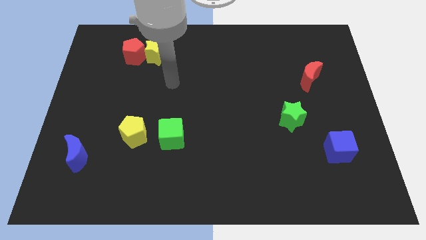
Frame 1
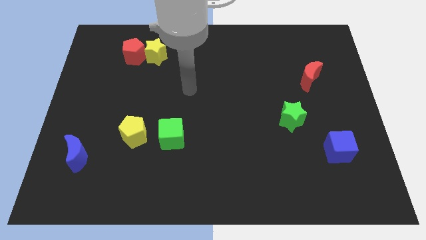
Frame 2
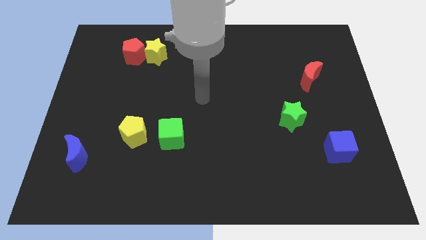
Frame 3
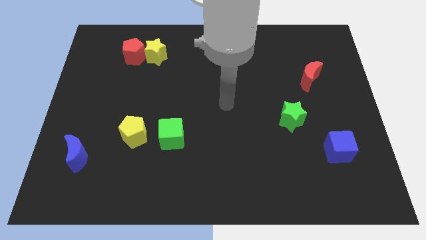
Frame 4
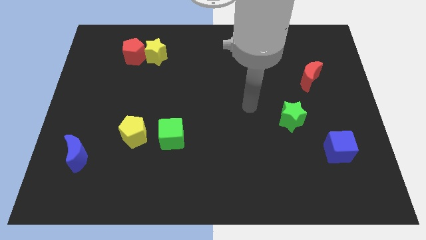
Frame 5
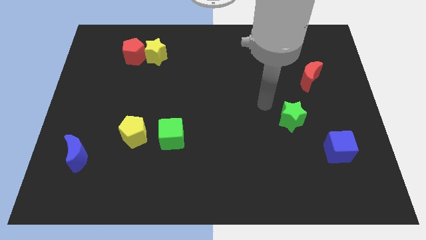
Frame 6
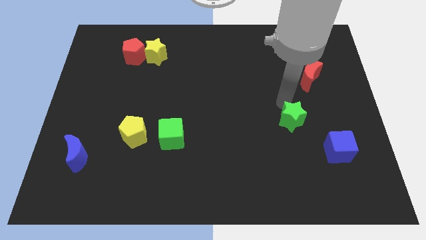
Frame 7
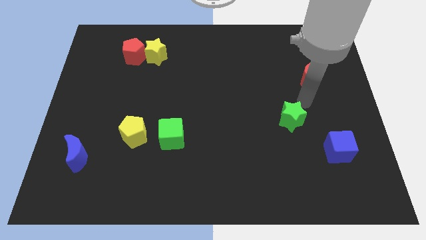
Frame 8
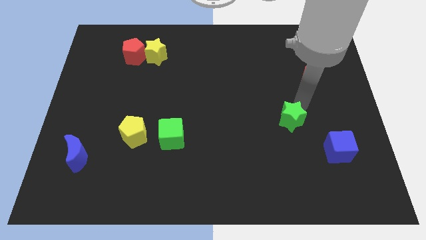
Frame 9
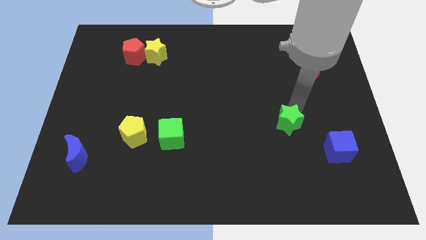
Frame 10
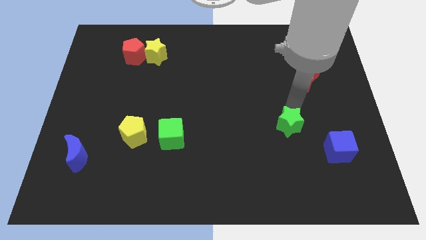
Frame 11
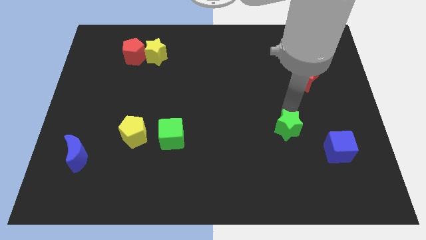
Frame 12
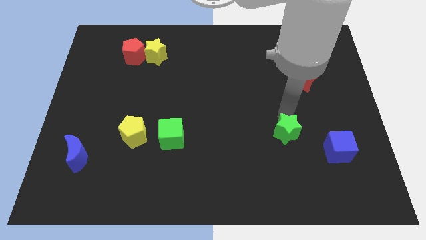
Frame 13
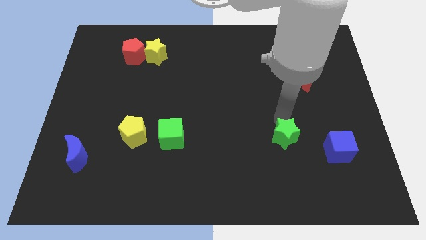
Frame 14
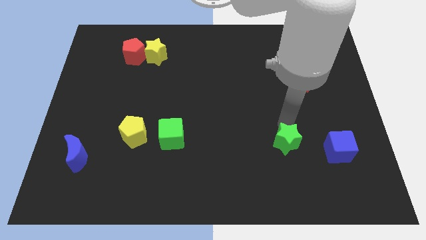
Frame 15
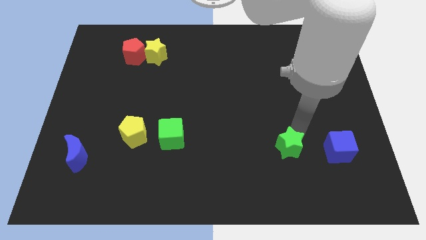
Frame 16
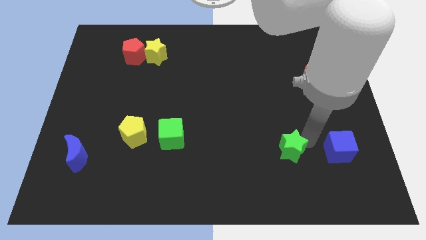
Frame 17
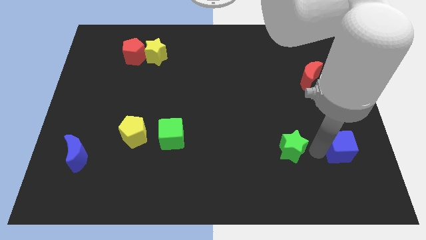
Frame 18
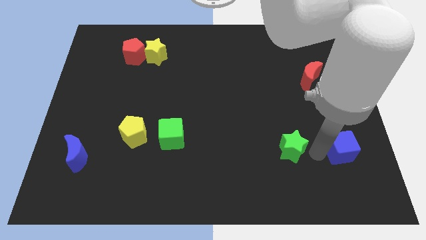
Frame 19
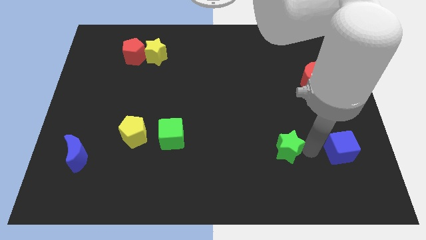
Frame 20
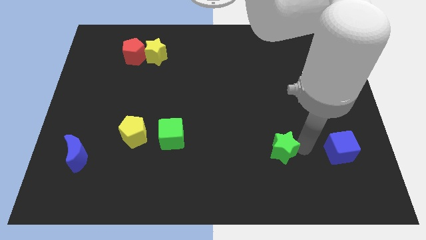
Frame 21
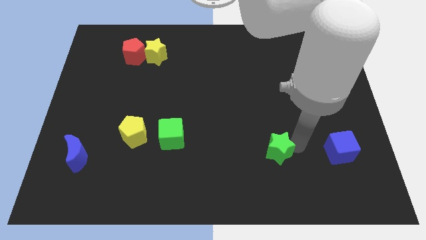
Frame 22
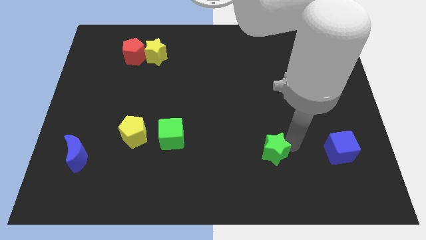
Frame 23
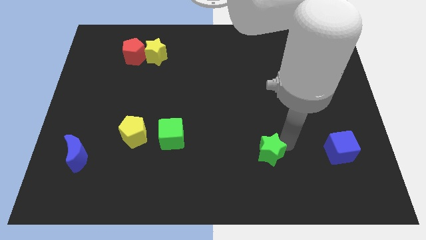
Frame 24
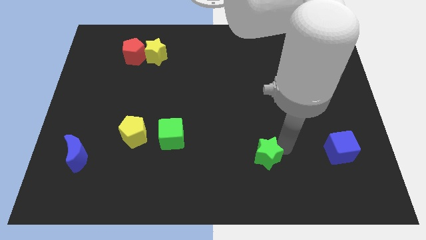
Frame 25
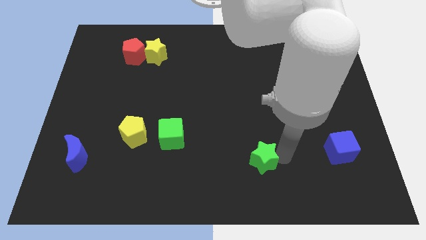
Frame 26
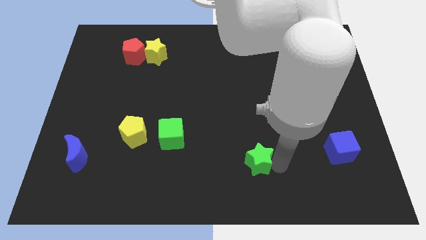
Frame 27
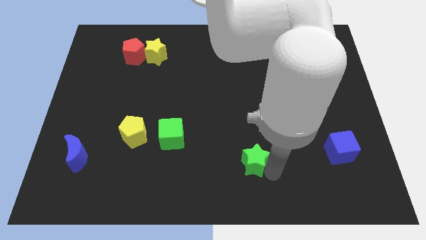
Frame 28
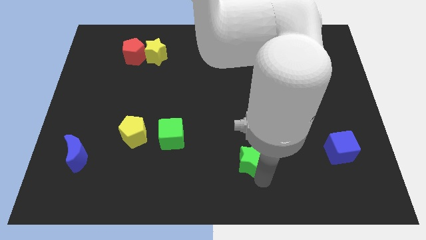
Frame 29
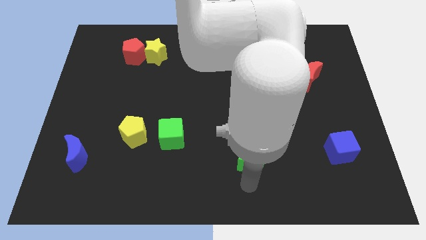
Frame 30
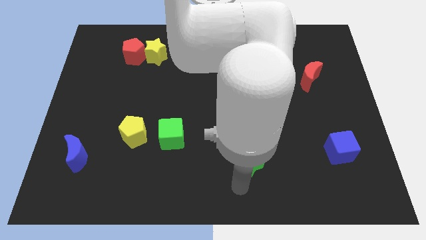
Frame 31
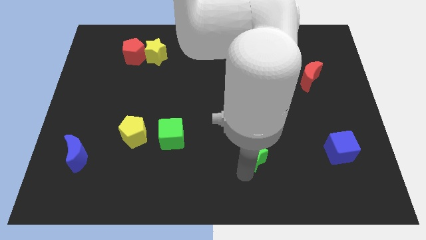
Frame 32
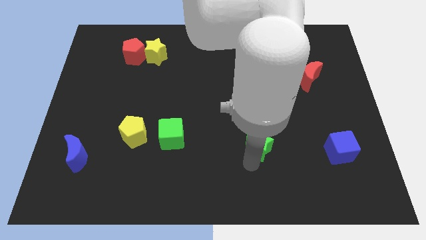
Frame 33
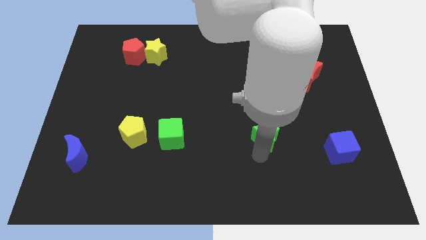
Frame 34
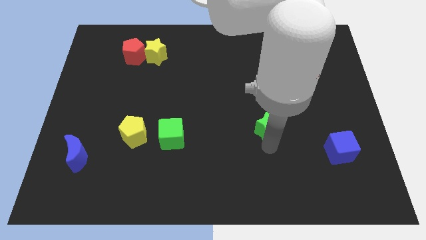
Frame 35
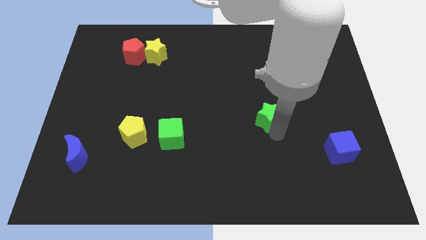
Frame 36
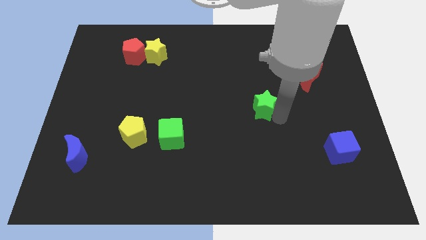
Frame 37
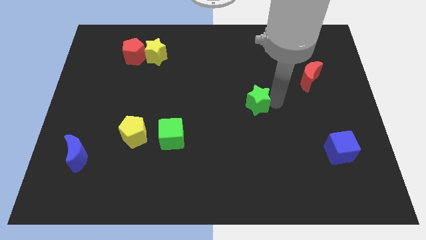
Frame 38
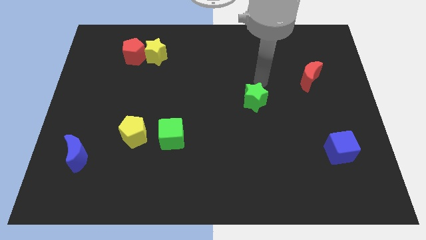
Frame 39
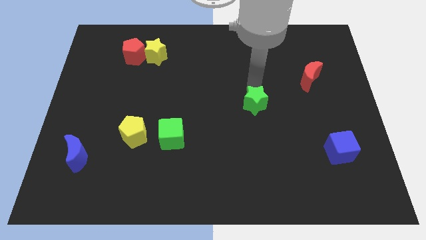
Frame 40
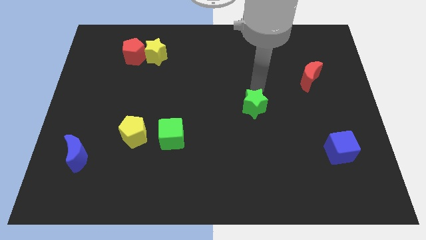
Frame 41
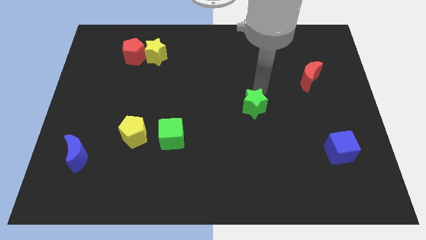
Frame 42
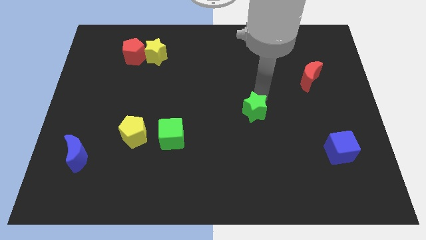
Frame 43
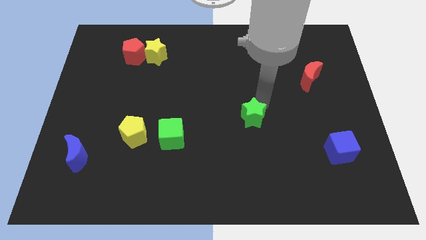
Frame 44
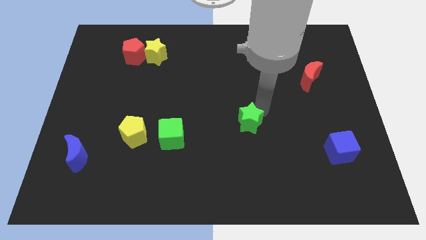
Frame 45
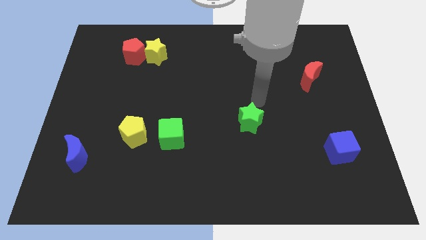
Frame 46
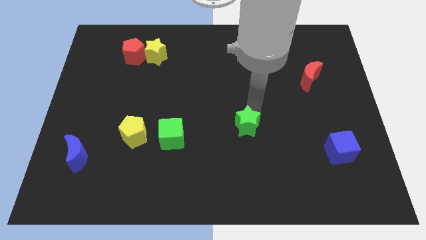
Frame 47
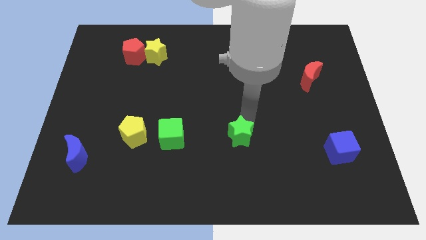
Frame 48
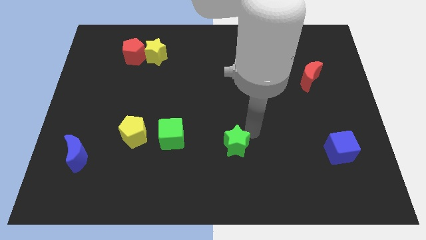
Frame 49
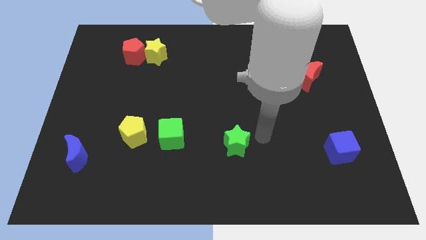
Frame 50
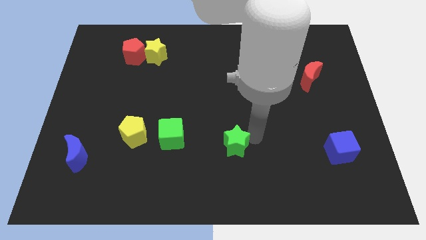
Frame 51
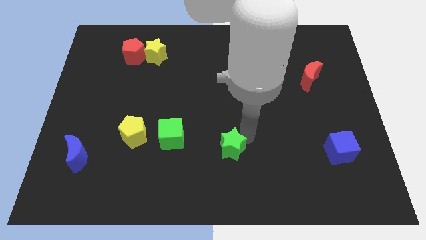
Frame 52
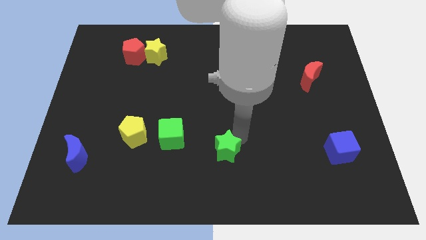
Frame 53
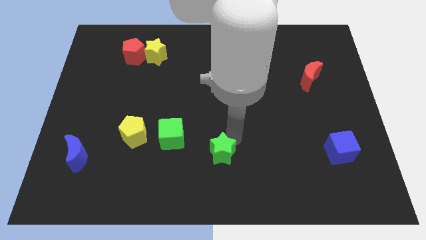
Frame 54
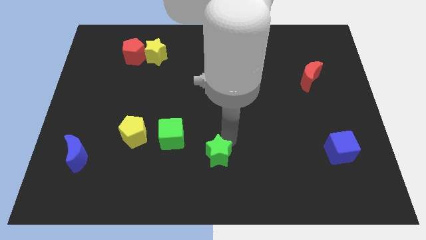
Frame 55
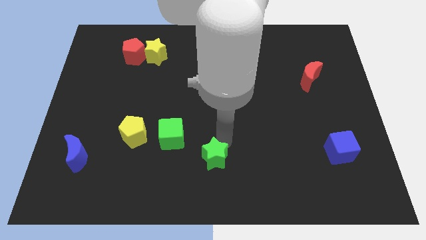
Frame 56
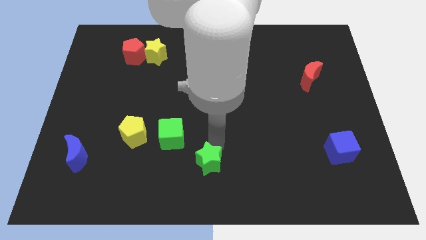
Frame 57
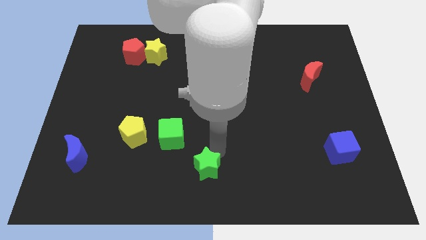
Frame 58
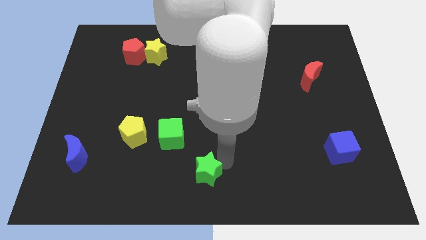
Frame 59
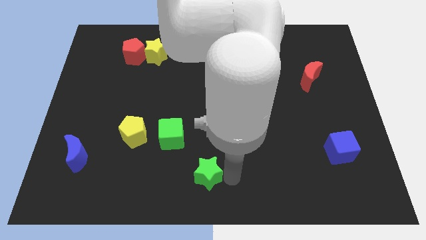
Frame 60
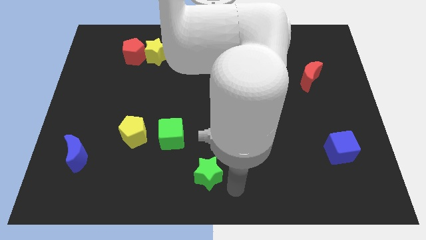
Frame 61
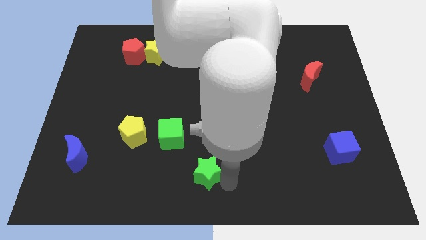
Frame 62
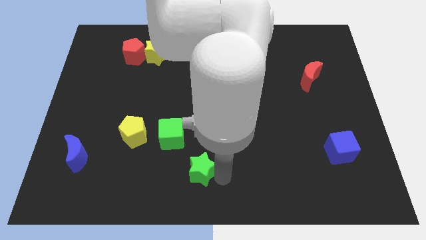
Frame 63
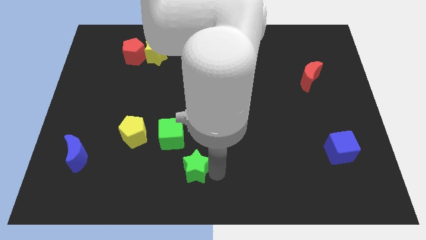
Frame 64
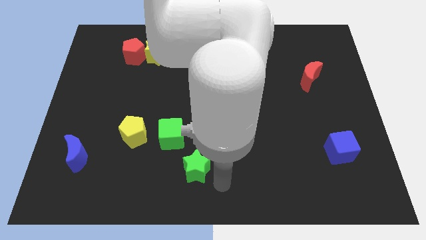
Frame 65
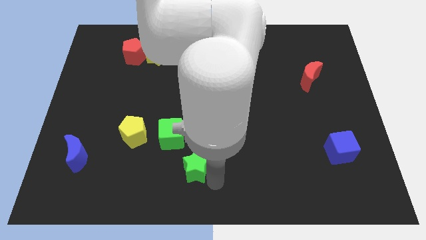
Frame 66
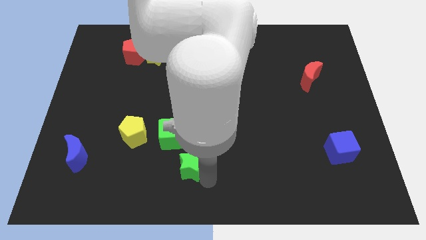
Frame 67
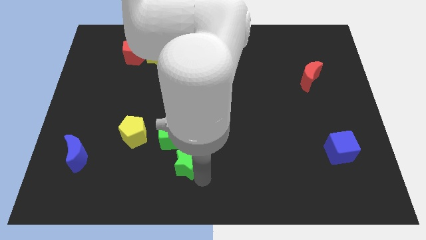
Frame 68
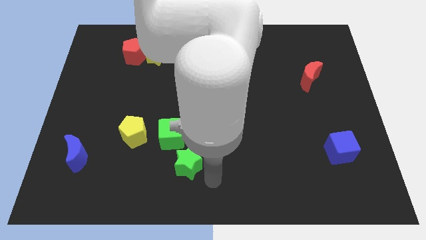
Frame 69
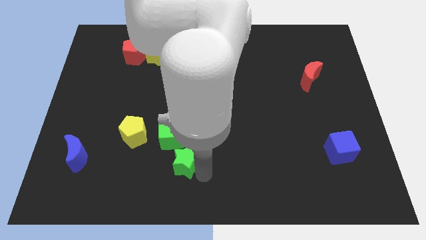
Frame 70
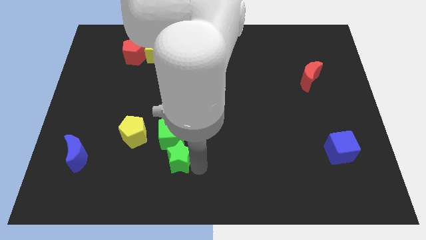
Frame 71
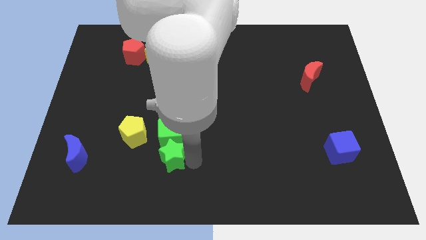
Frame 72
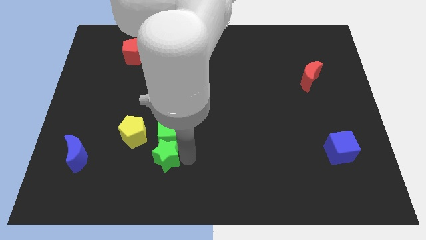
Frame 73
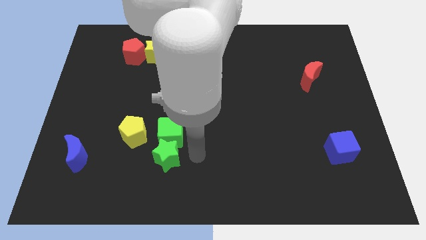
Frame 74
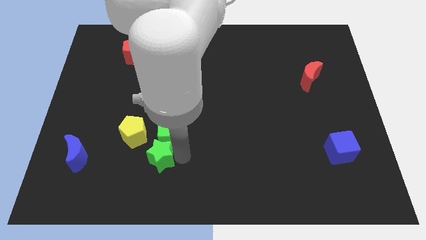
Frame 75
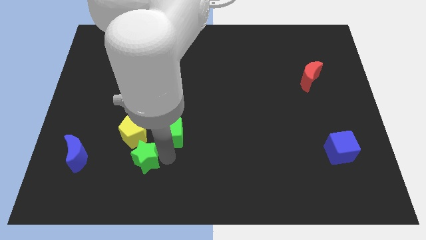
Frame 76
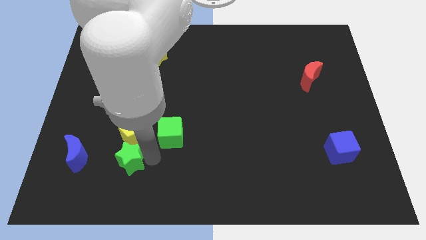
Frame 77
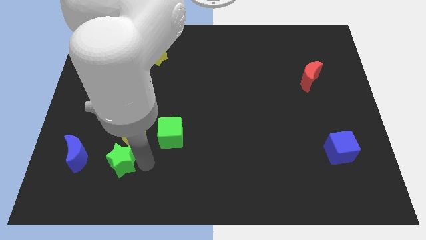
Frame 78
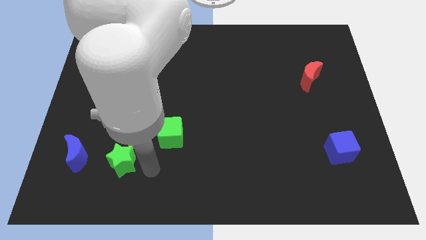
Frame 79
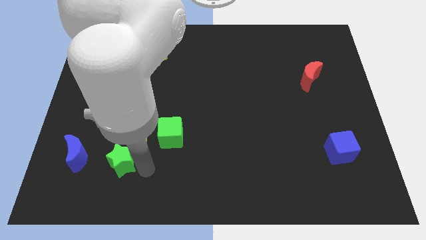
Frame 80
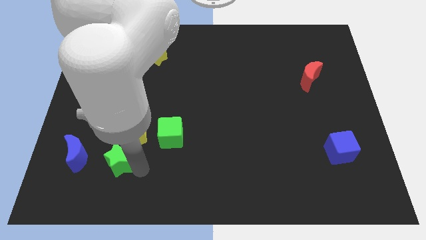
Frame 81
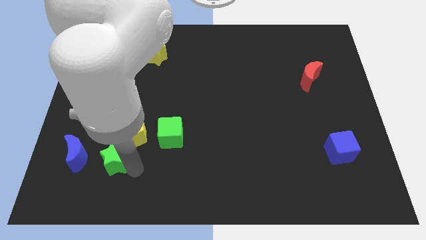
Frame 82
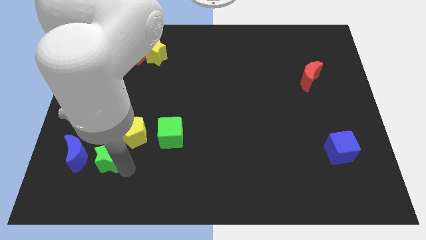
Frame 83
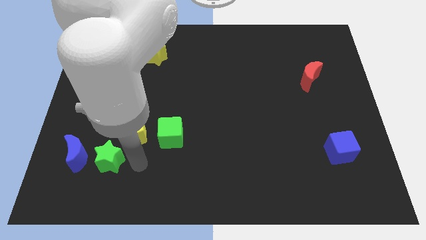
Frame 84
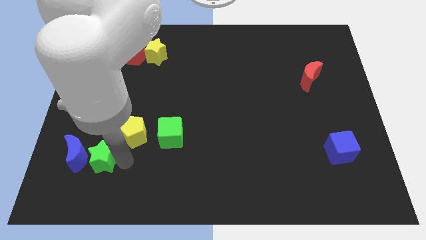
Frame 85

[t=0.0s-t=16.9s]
put the green star to the blue moon
